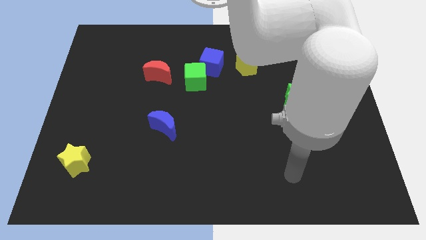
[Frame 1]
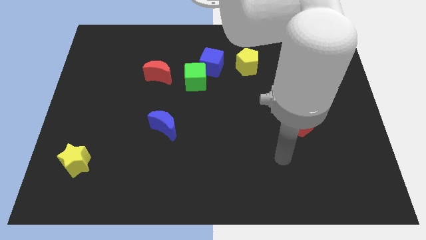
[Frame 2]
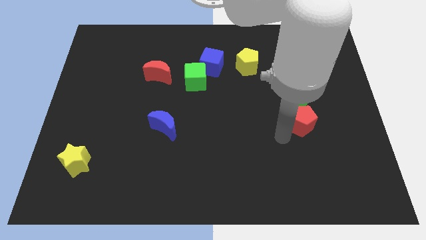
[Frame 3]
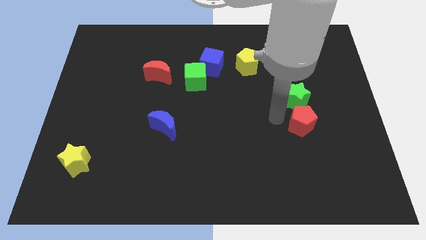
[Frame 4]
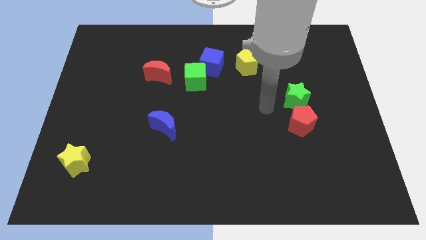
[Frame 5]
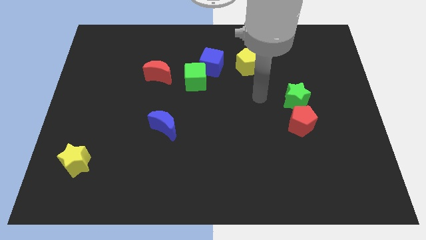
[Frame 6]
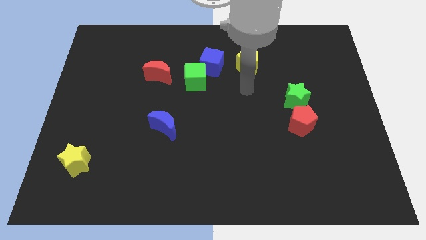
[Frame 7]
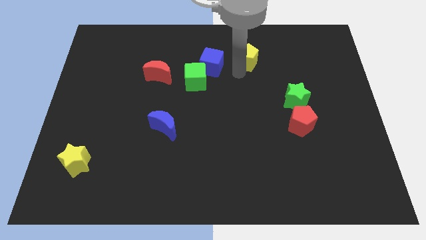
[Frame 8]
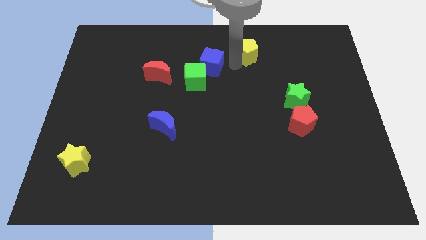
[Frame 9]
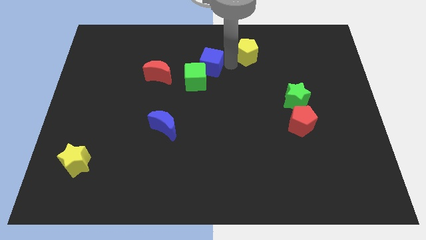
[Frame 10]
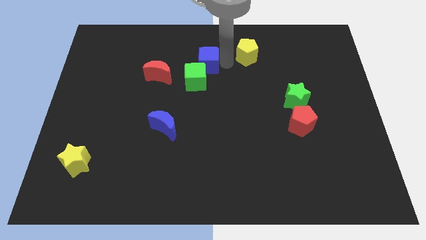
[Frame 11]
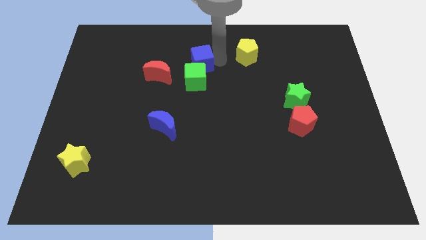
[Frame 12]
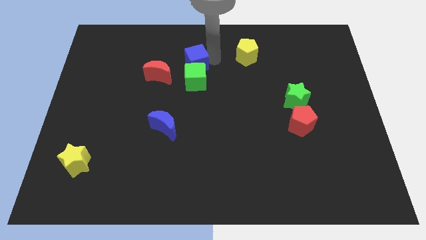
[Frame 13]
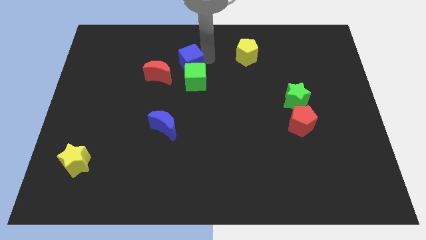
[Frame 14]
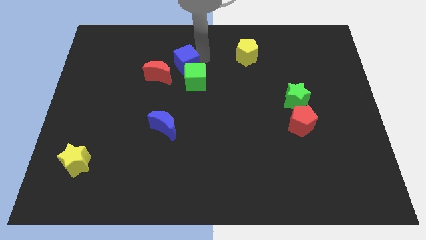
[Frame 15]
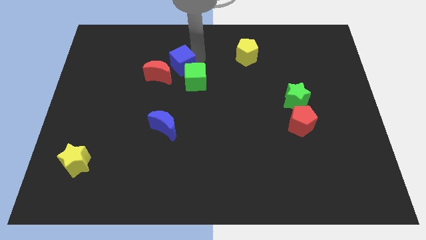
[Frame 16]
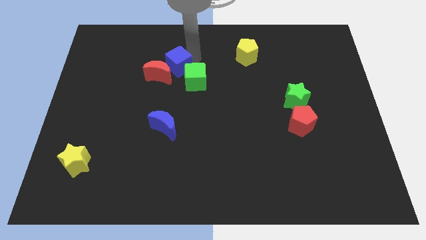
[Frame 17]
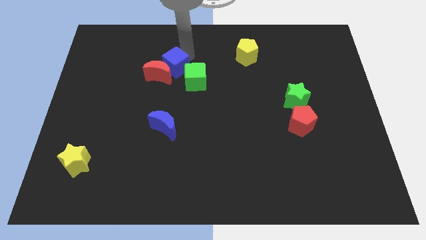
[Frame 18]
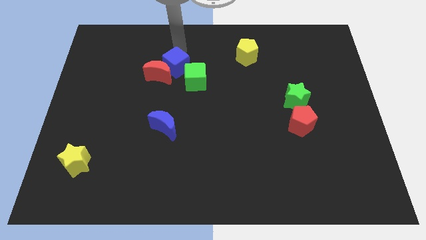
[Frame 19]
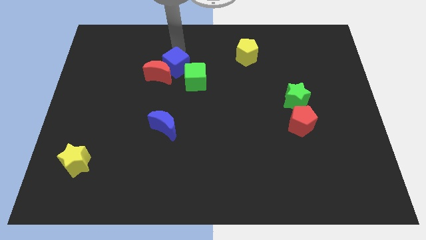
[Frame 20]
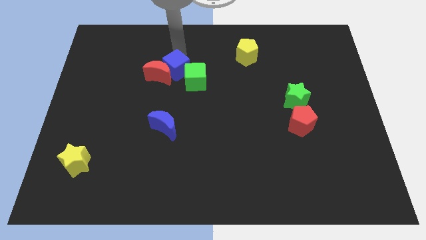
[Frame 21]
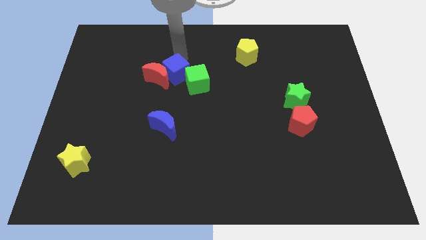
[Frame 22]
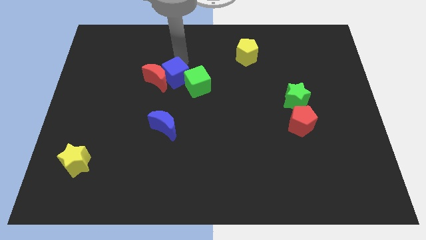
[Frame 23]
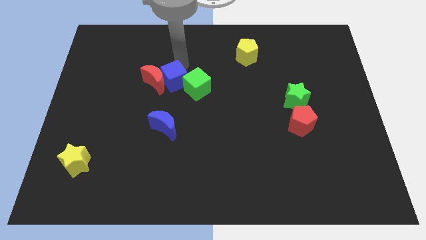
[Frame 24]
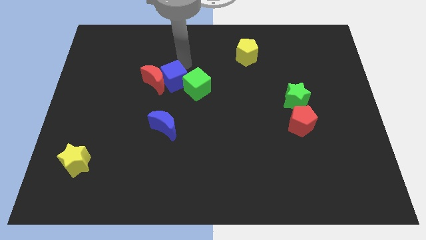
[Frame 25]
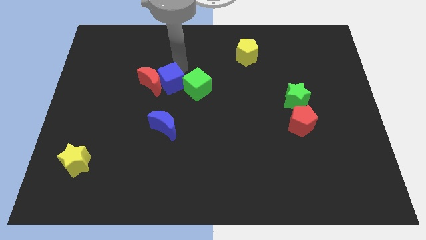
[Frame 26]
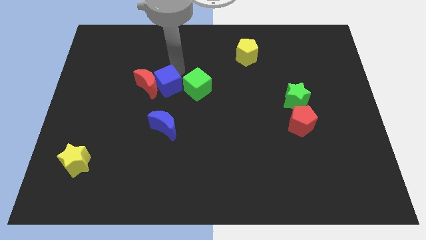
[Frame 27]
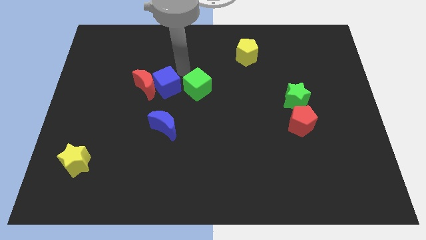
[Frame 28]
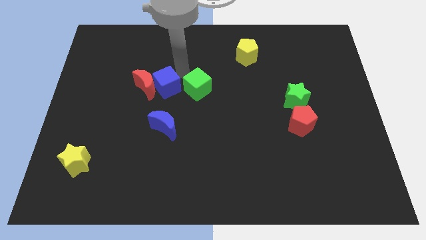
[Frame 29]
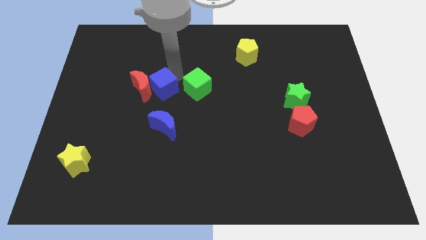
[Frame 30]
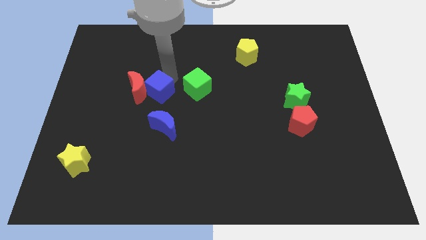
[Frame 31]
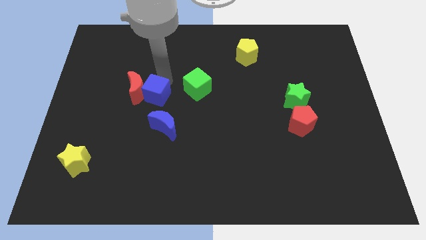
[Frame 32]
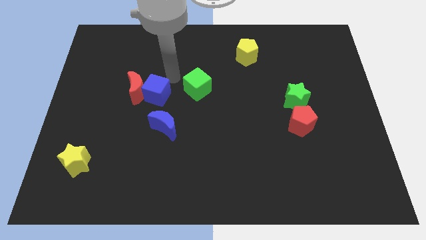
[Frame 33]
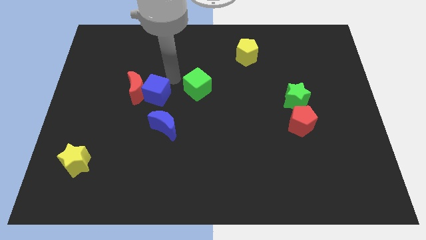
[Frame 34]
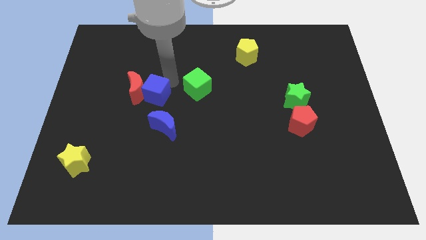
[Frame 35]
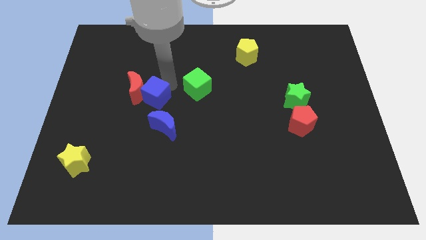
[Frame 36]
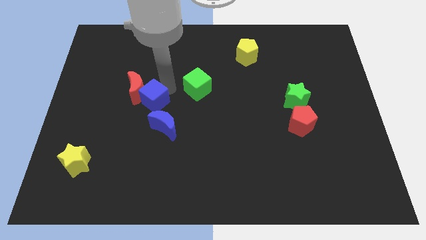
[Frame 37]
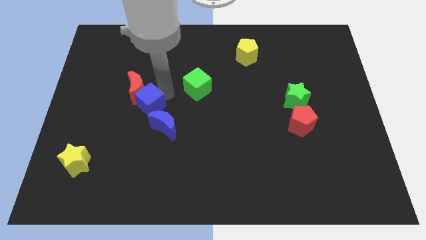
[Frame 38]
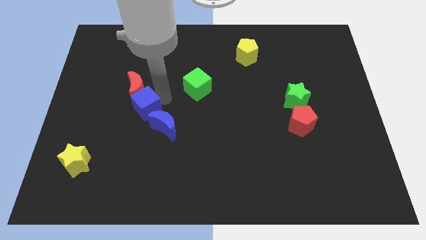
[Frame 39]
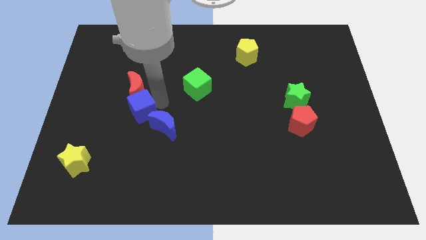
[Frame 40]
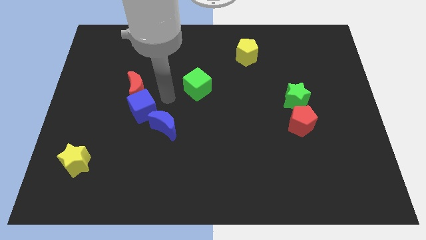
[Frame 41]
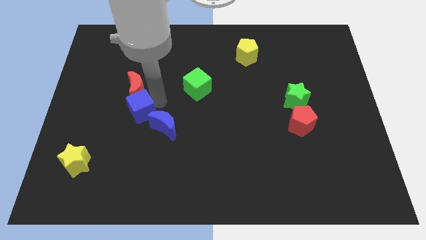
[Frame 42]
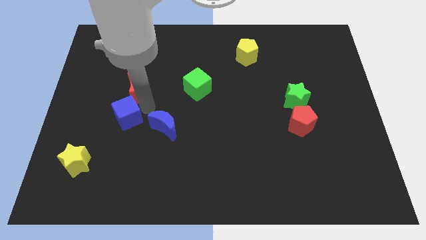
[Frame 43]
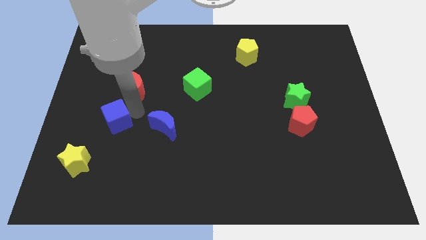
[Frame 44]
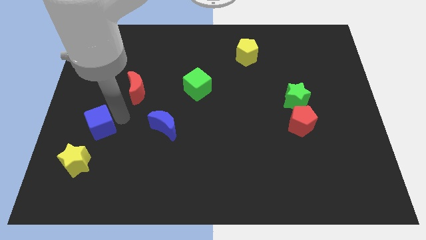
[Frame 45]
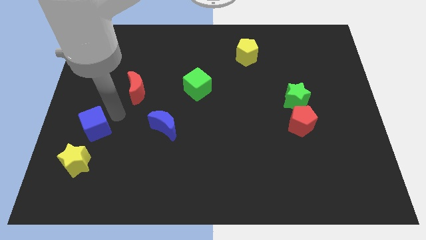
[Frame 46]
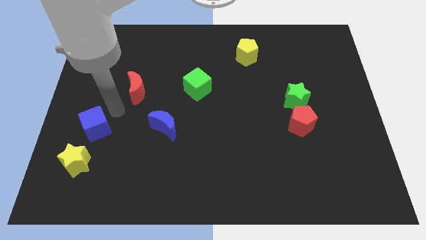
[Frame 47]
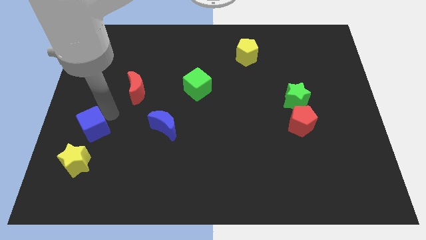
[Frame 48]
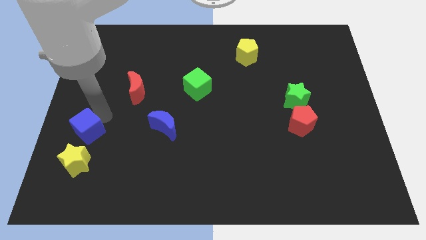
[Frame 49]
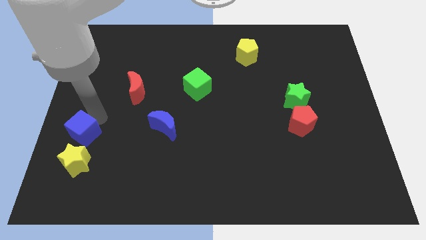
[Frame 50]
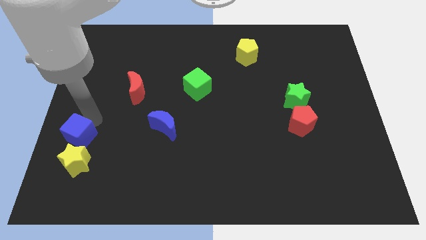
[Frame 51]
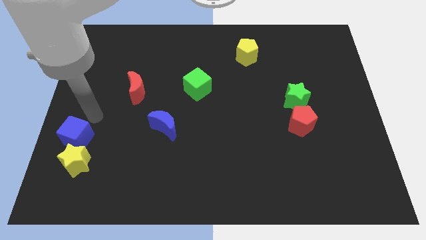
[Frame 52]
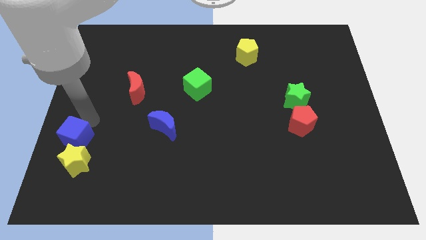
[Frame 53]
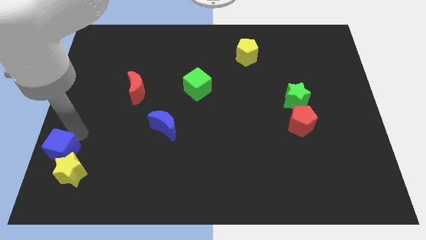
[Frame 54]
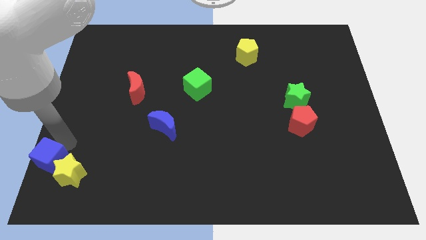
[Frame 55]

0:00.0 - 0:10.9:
move the blue cube to the bottom left

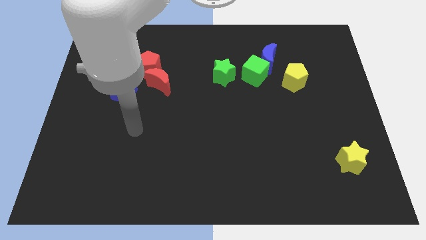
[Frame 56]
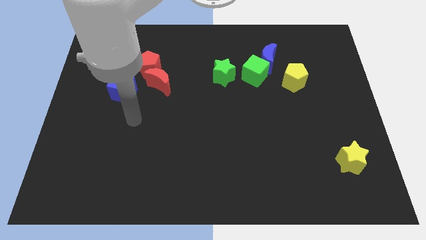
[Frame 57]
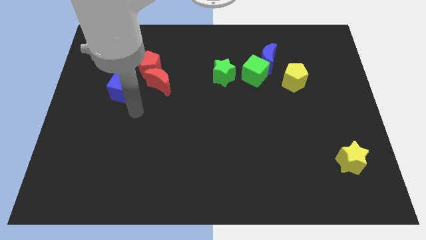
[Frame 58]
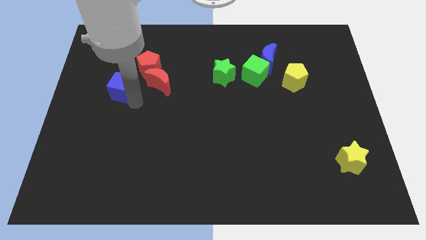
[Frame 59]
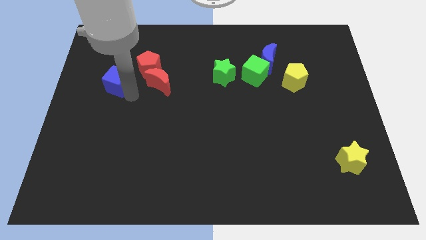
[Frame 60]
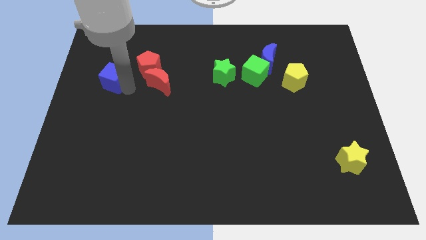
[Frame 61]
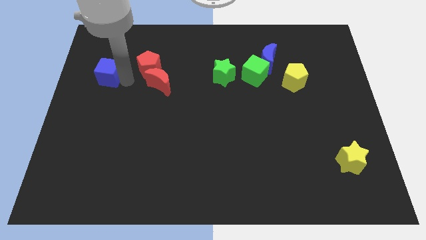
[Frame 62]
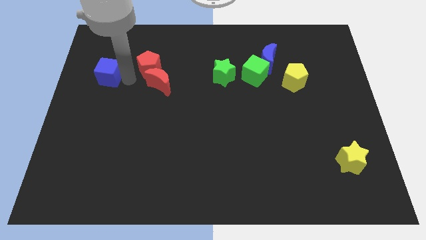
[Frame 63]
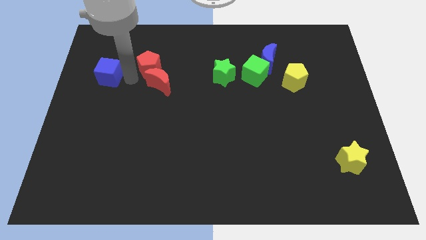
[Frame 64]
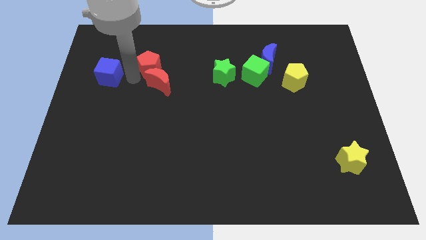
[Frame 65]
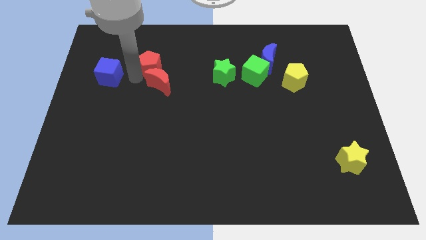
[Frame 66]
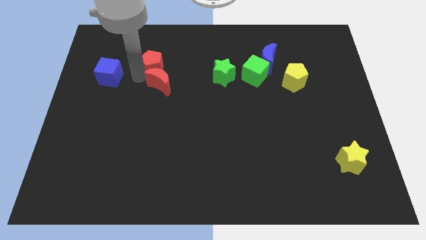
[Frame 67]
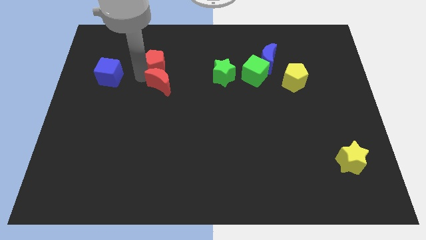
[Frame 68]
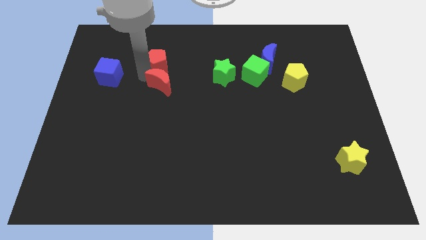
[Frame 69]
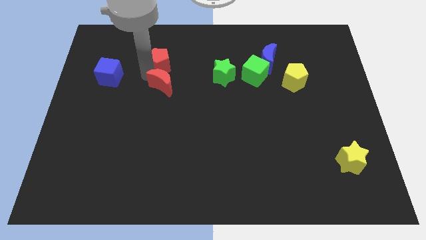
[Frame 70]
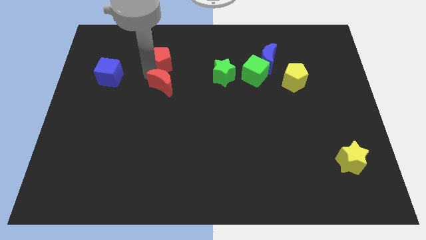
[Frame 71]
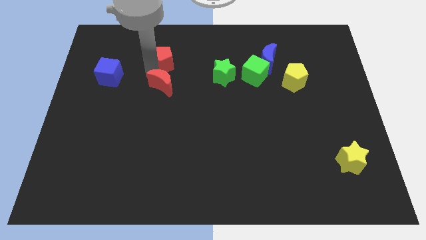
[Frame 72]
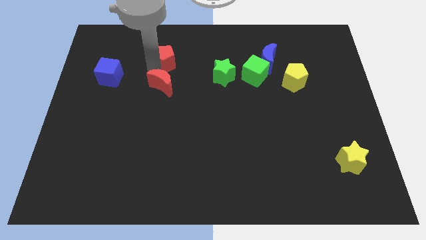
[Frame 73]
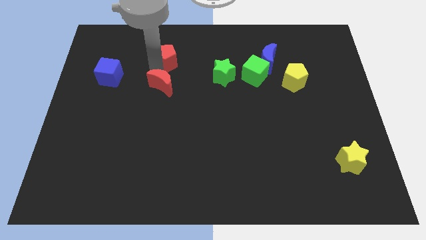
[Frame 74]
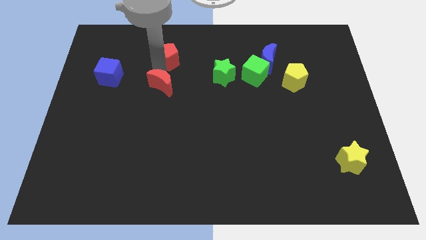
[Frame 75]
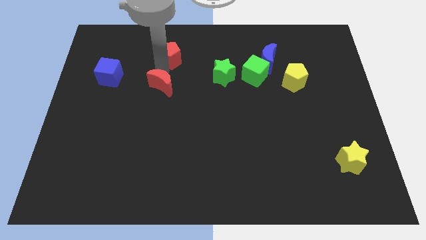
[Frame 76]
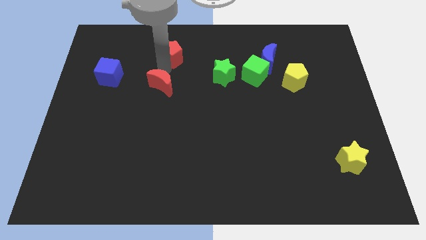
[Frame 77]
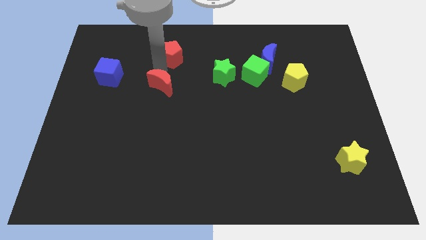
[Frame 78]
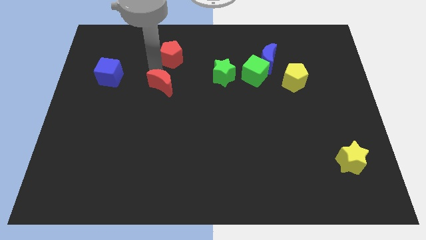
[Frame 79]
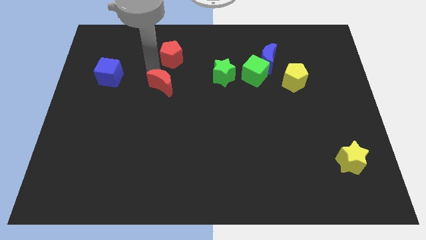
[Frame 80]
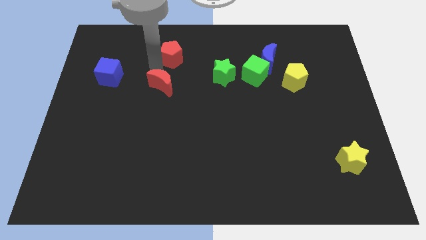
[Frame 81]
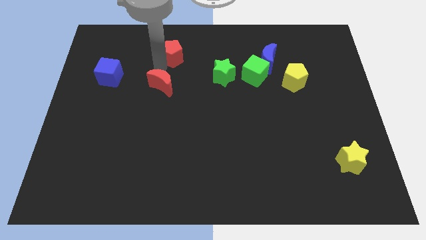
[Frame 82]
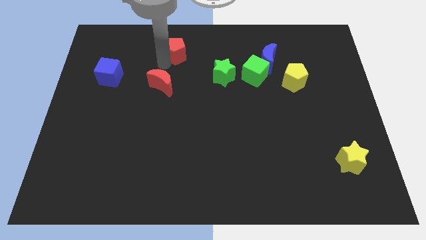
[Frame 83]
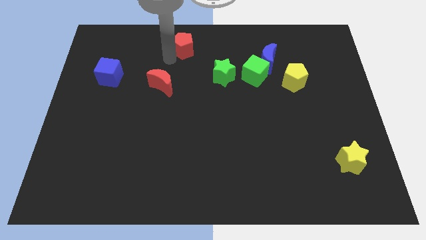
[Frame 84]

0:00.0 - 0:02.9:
push the red pentagon to the top side
